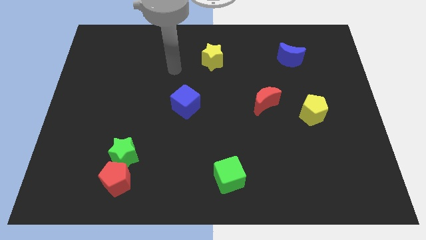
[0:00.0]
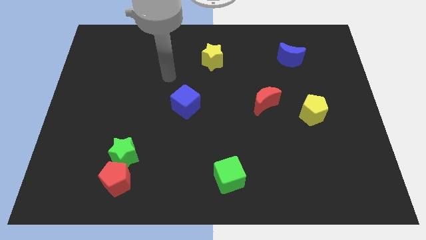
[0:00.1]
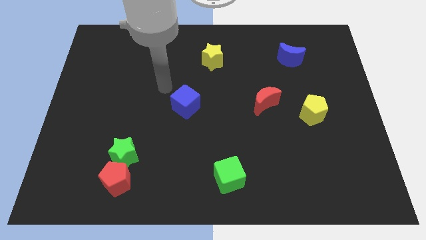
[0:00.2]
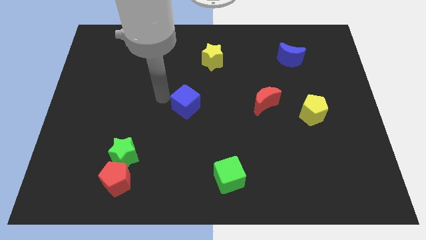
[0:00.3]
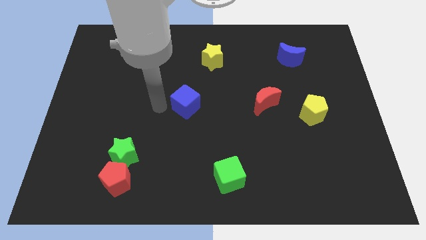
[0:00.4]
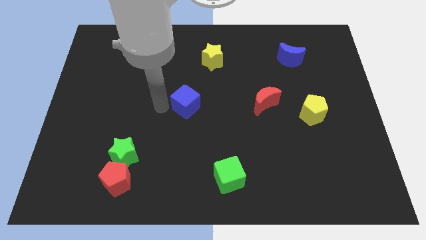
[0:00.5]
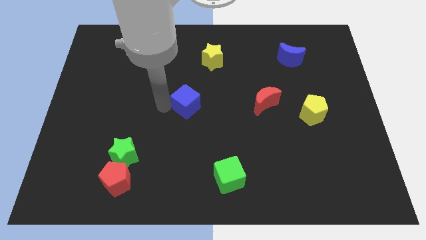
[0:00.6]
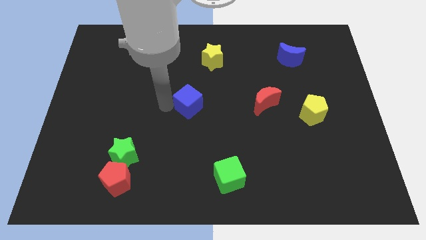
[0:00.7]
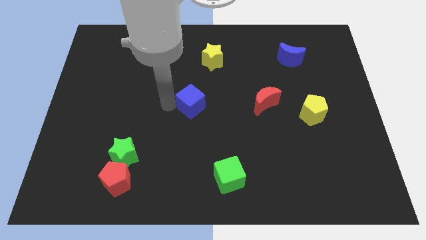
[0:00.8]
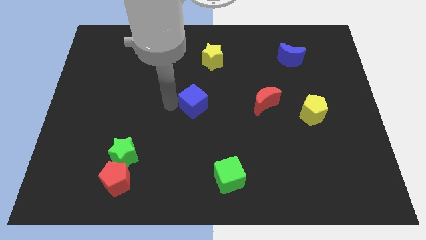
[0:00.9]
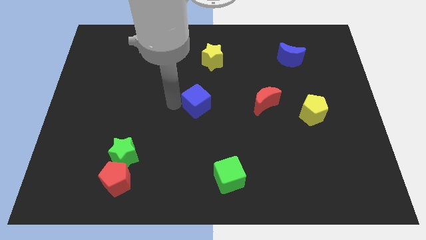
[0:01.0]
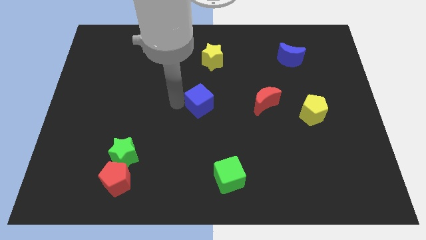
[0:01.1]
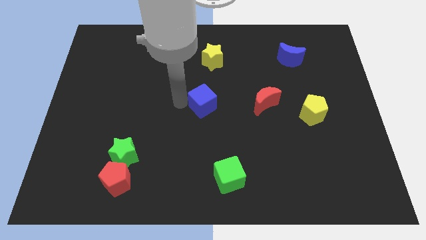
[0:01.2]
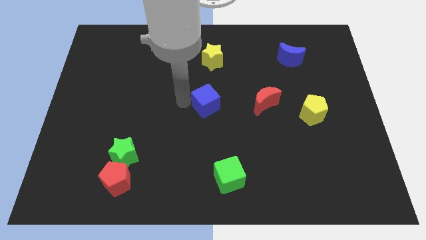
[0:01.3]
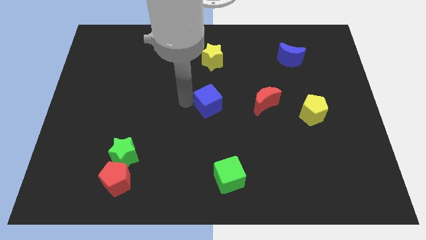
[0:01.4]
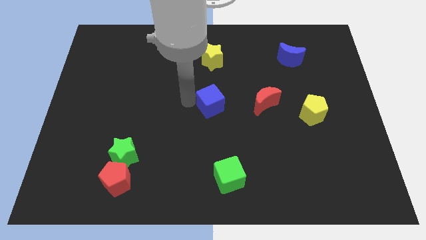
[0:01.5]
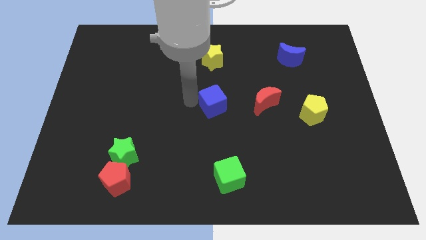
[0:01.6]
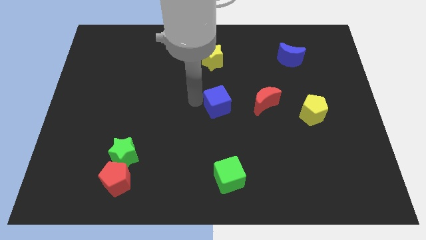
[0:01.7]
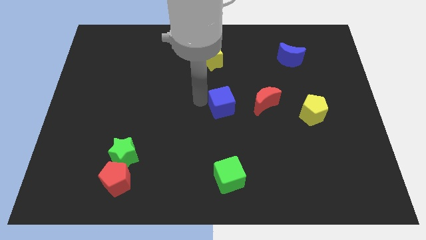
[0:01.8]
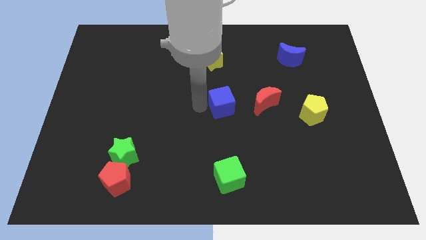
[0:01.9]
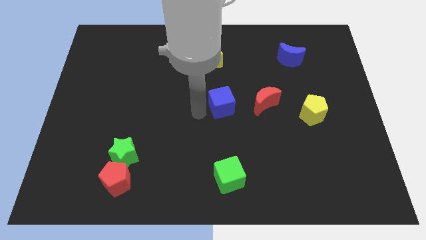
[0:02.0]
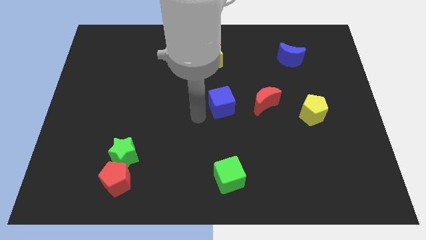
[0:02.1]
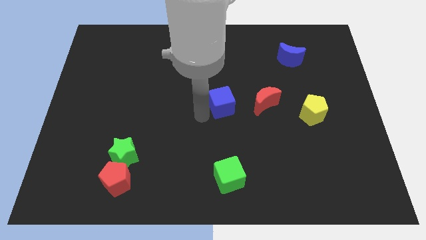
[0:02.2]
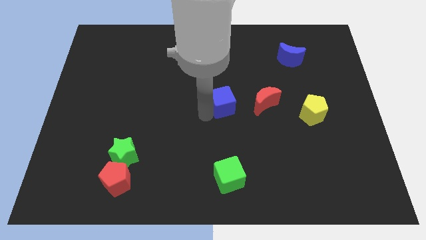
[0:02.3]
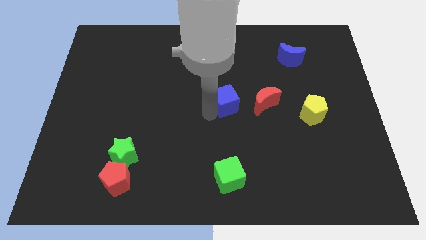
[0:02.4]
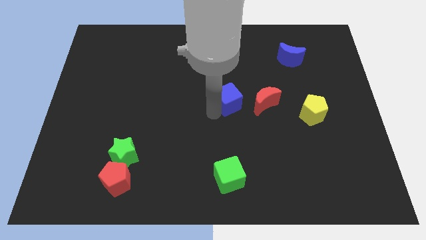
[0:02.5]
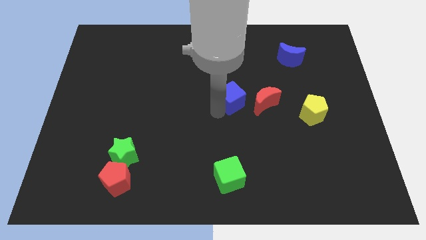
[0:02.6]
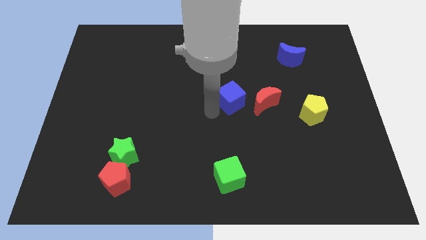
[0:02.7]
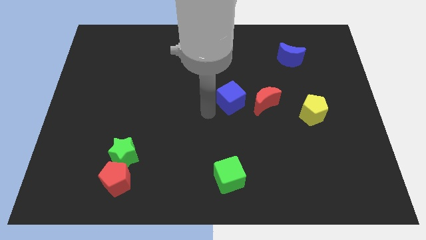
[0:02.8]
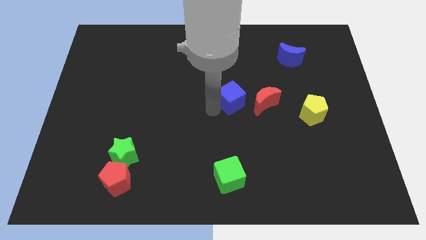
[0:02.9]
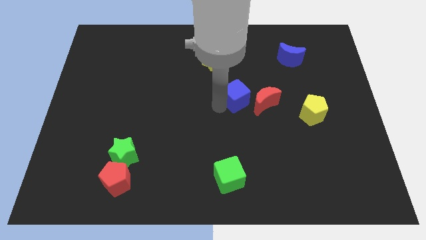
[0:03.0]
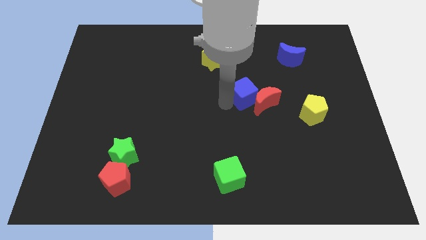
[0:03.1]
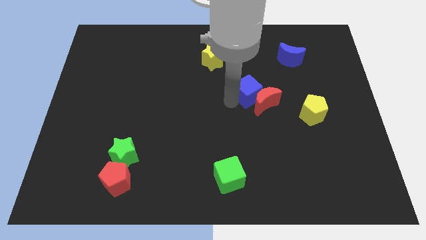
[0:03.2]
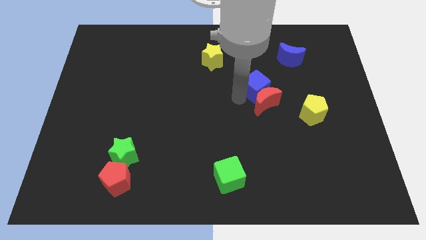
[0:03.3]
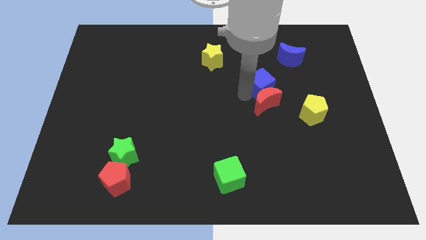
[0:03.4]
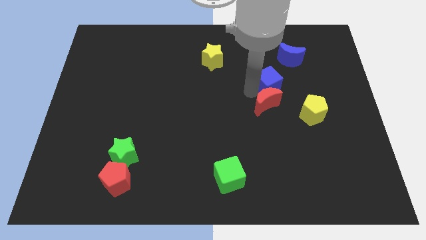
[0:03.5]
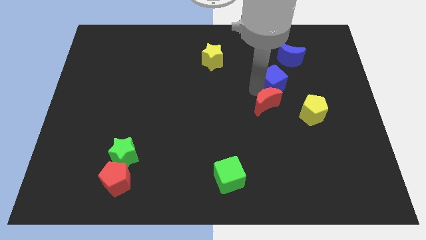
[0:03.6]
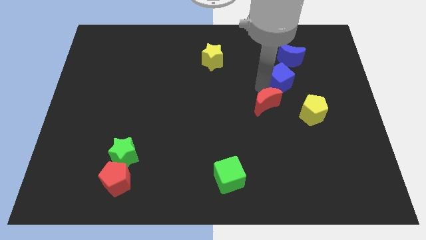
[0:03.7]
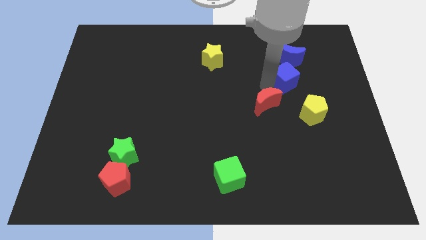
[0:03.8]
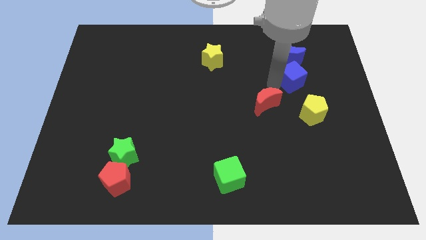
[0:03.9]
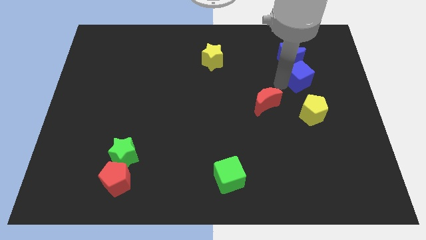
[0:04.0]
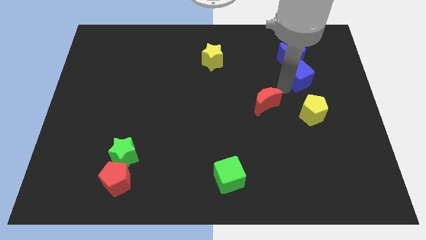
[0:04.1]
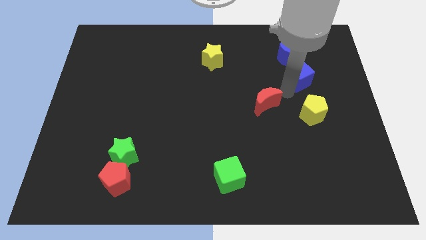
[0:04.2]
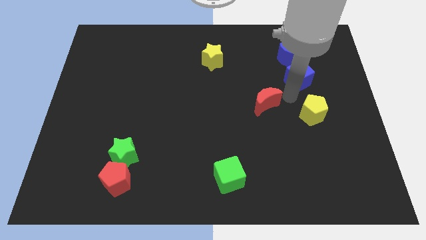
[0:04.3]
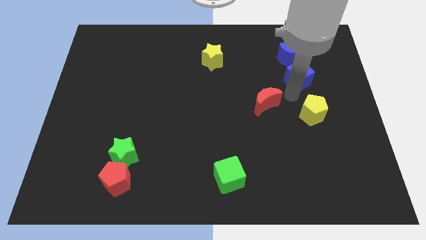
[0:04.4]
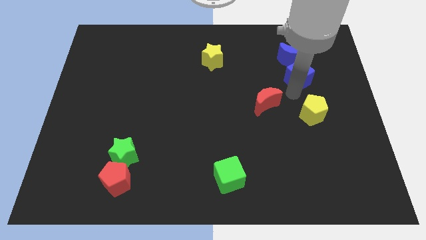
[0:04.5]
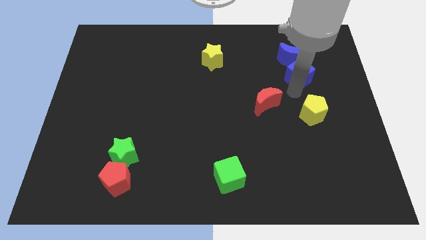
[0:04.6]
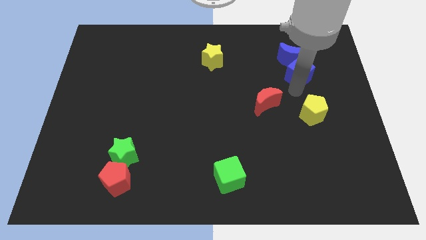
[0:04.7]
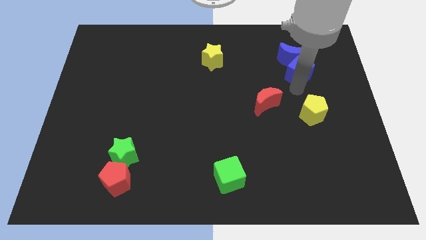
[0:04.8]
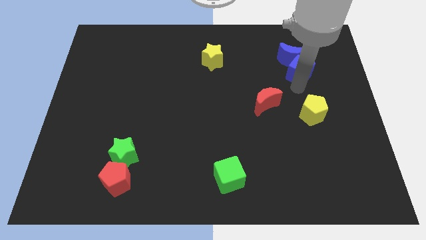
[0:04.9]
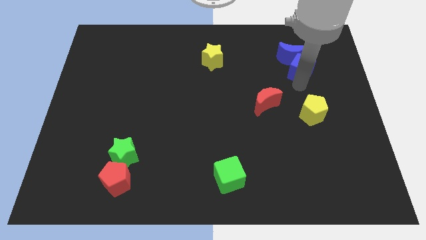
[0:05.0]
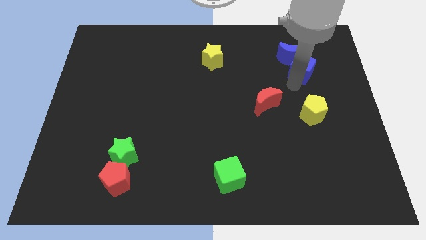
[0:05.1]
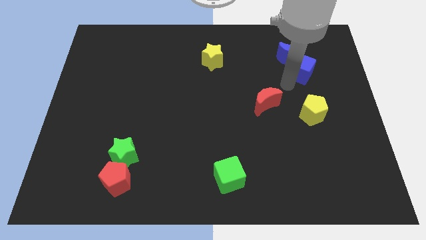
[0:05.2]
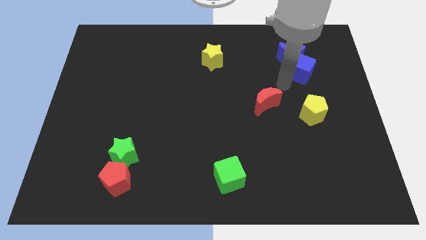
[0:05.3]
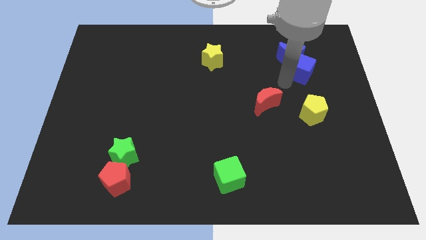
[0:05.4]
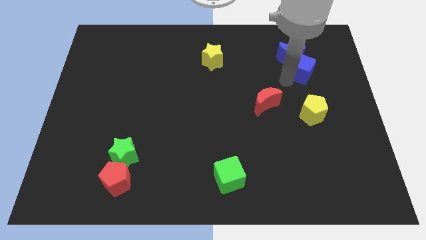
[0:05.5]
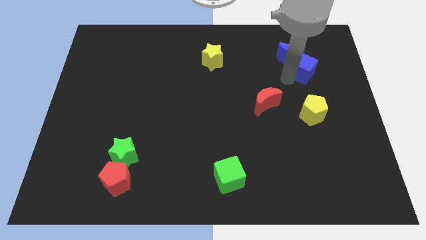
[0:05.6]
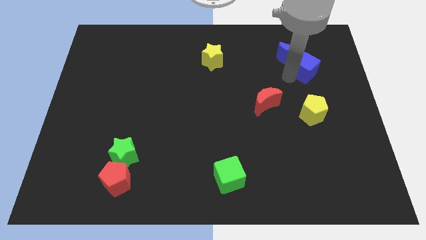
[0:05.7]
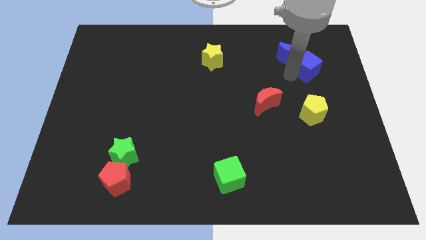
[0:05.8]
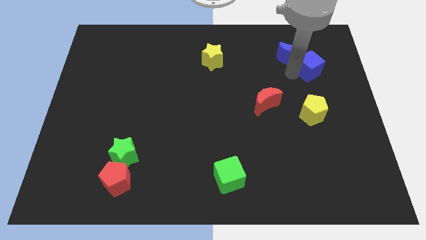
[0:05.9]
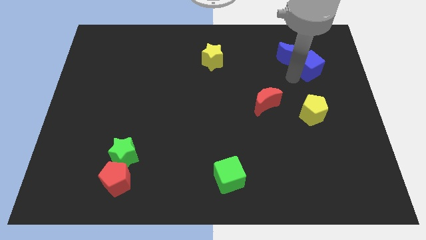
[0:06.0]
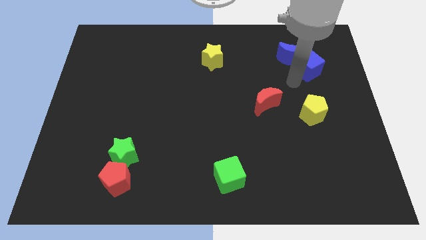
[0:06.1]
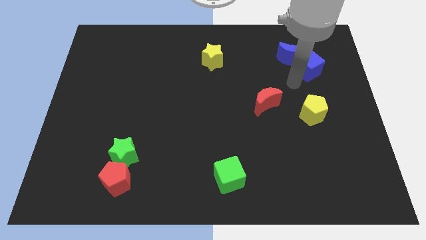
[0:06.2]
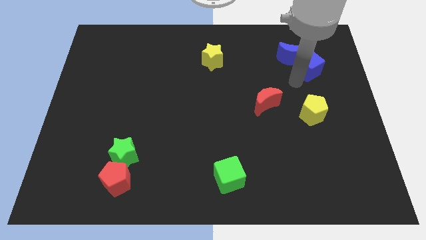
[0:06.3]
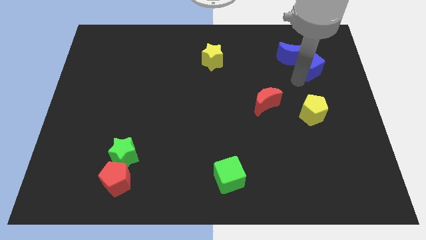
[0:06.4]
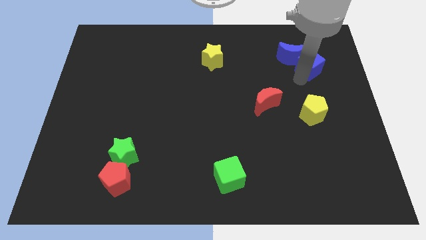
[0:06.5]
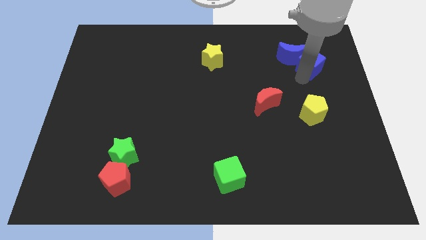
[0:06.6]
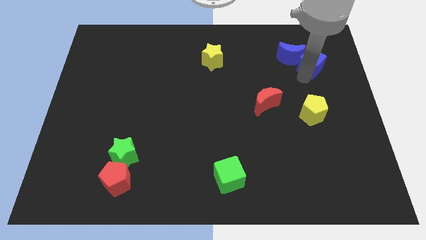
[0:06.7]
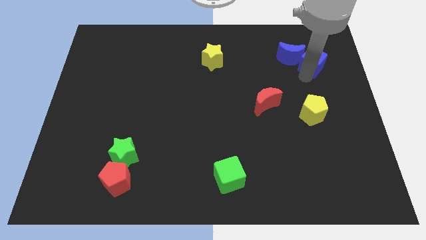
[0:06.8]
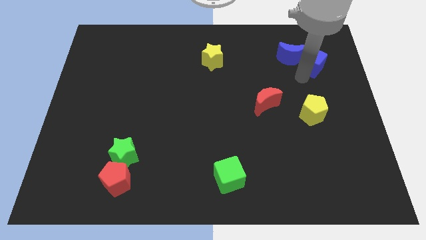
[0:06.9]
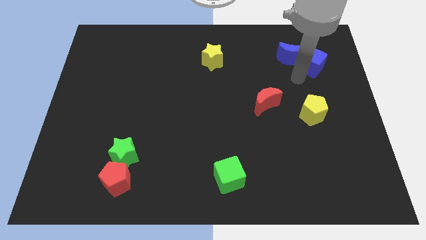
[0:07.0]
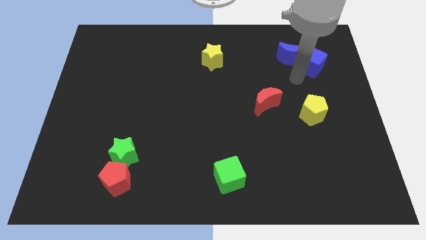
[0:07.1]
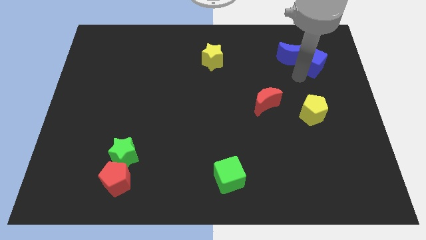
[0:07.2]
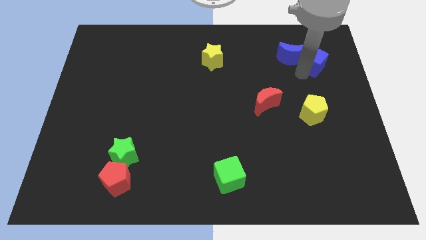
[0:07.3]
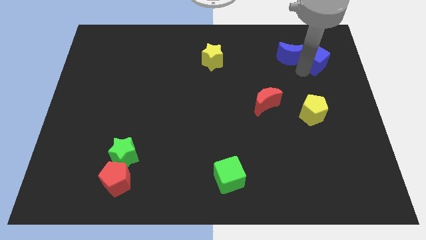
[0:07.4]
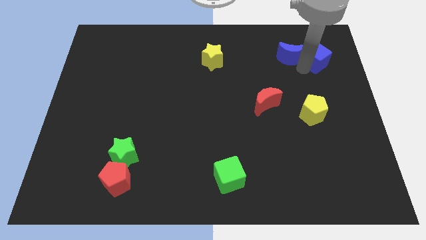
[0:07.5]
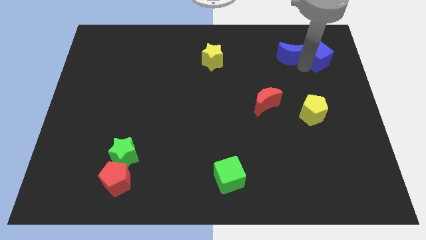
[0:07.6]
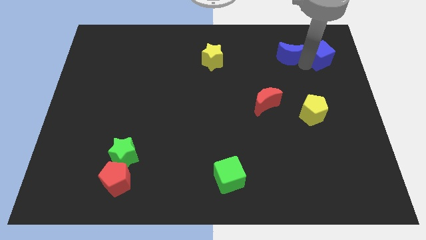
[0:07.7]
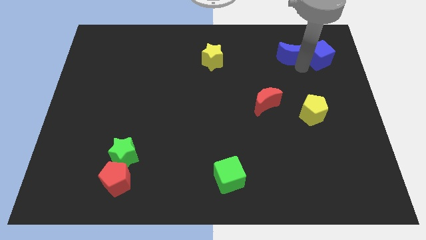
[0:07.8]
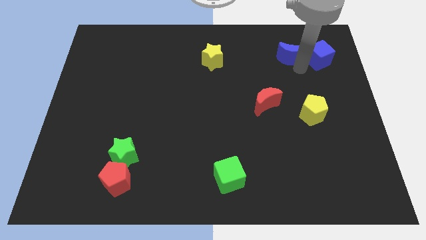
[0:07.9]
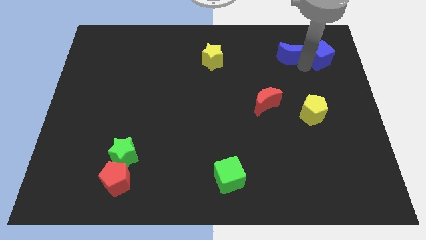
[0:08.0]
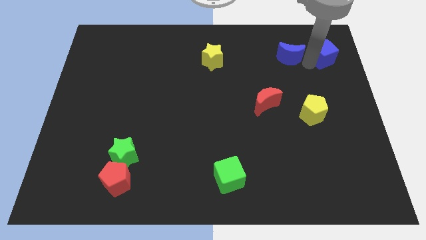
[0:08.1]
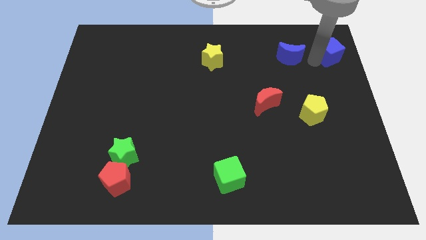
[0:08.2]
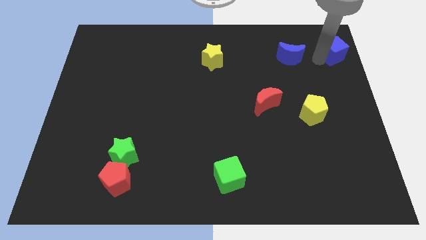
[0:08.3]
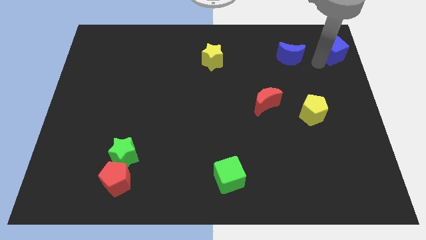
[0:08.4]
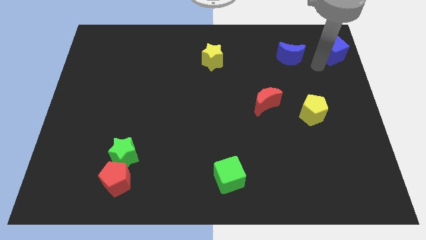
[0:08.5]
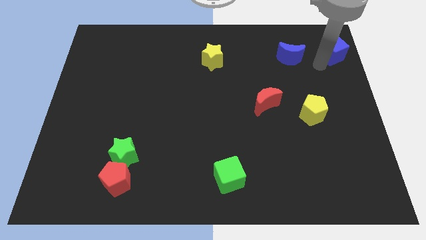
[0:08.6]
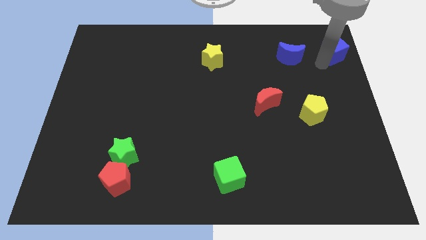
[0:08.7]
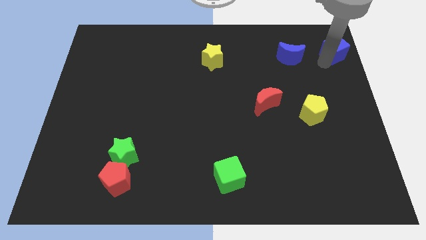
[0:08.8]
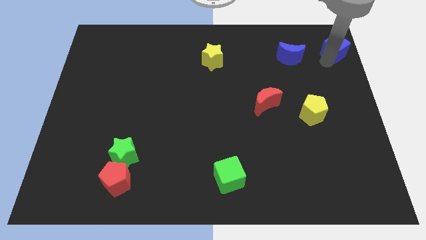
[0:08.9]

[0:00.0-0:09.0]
move the blue cube to the upper right corner
